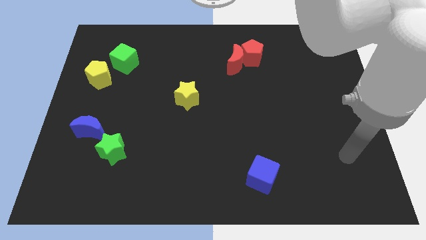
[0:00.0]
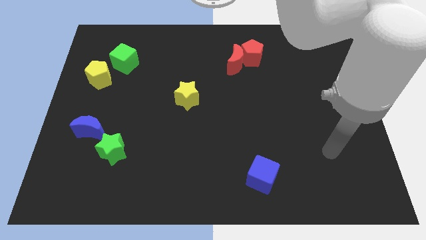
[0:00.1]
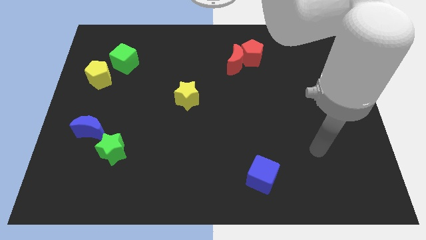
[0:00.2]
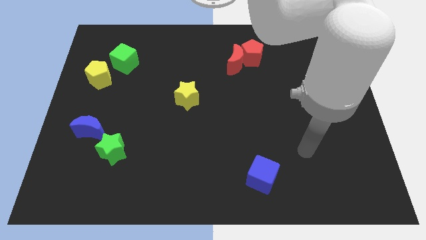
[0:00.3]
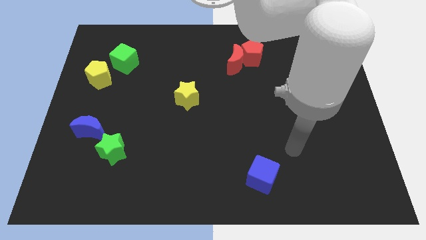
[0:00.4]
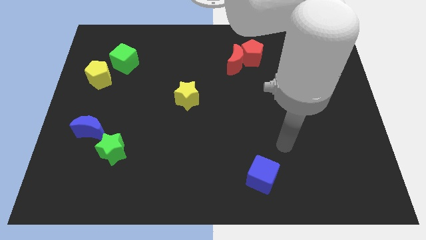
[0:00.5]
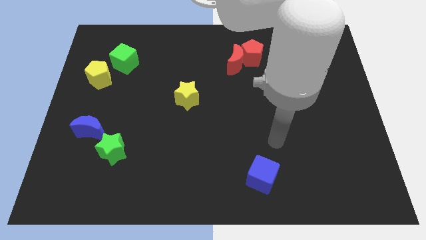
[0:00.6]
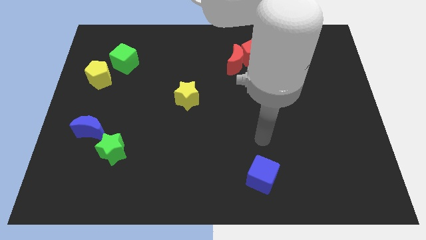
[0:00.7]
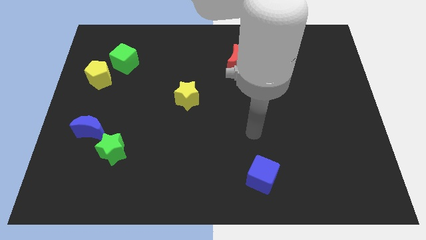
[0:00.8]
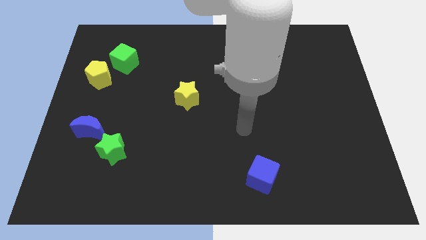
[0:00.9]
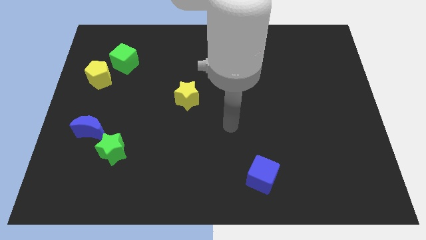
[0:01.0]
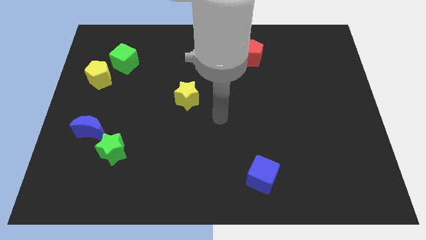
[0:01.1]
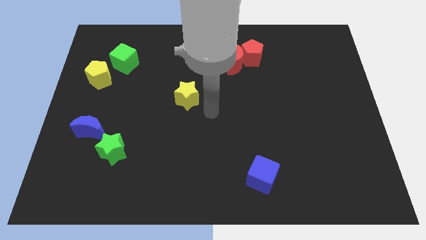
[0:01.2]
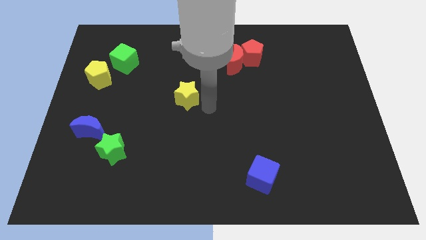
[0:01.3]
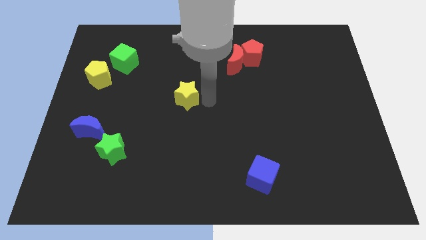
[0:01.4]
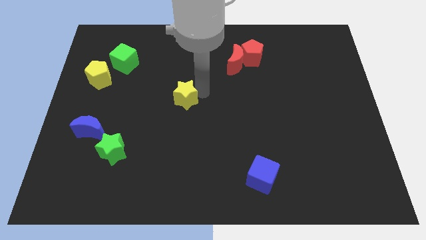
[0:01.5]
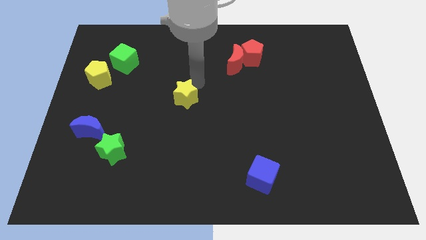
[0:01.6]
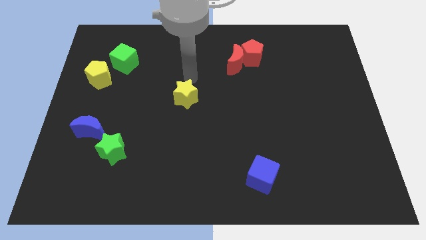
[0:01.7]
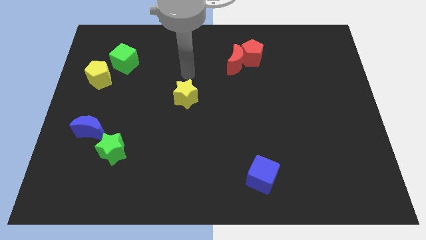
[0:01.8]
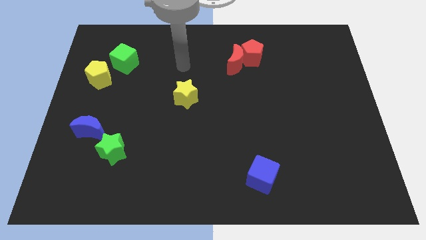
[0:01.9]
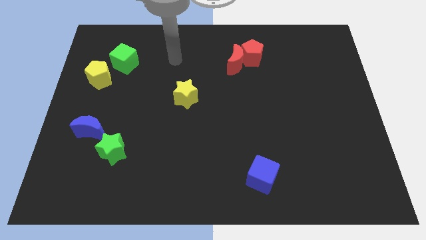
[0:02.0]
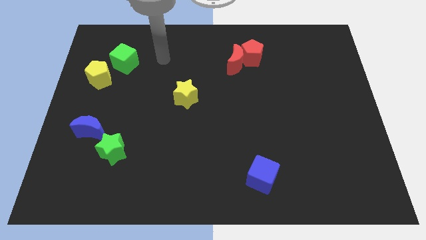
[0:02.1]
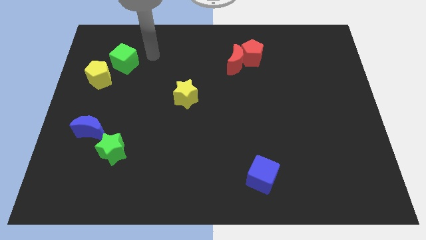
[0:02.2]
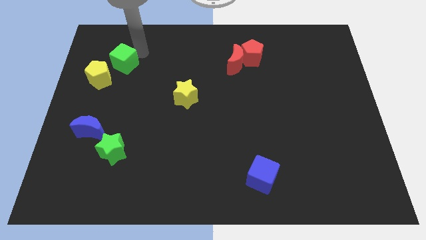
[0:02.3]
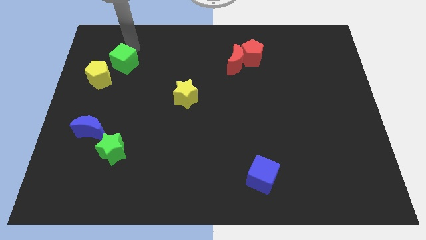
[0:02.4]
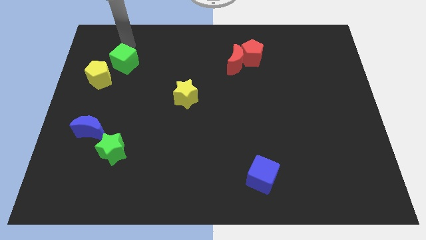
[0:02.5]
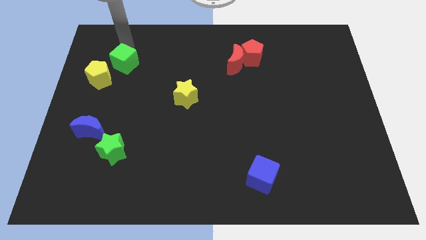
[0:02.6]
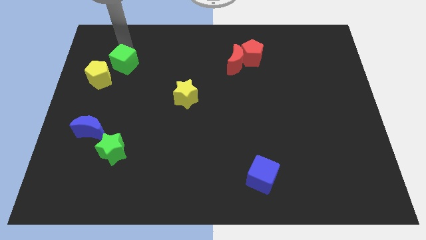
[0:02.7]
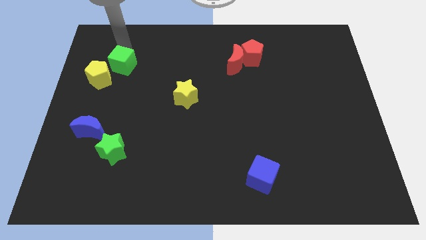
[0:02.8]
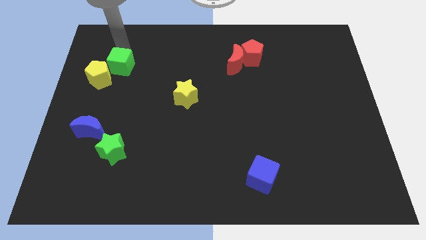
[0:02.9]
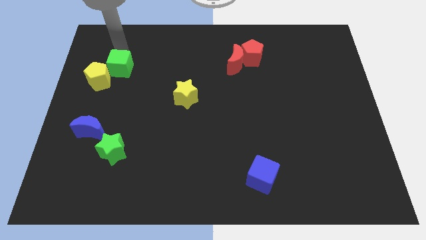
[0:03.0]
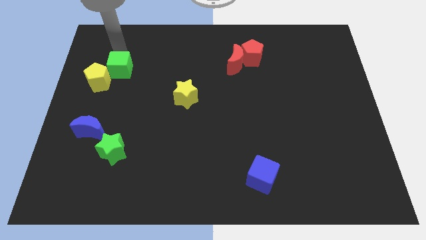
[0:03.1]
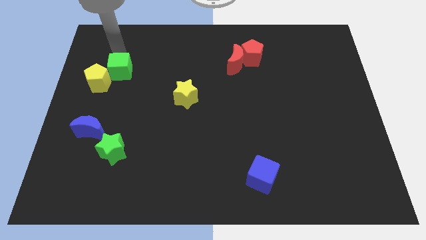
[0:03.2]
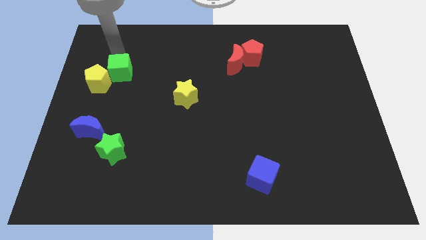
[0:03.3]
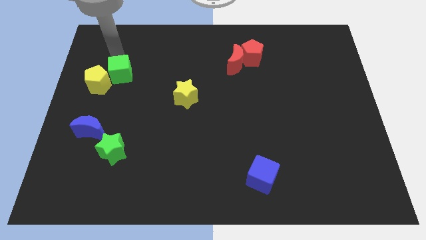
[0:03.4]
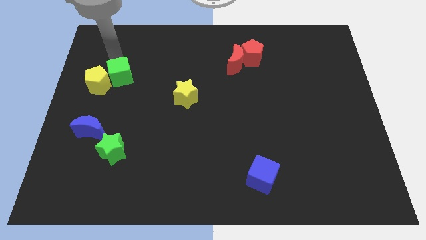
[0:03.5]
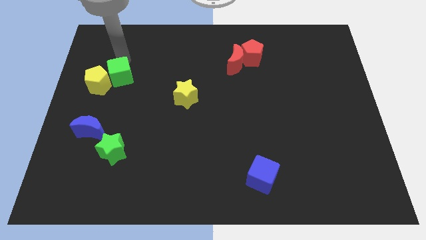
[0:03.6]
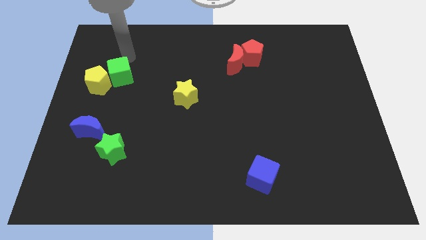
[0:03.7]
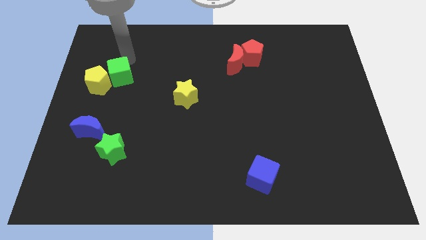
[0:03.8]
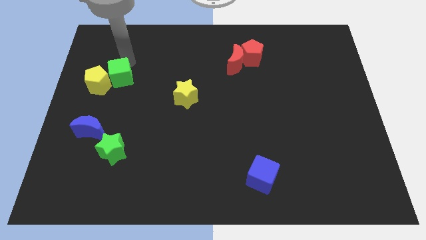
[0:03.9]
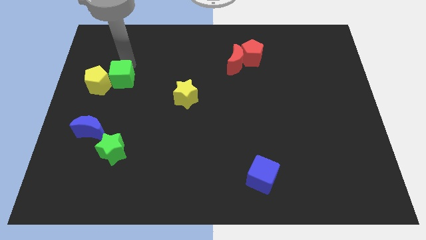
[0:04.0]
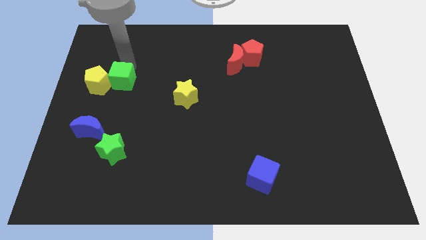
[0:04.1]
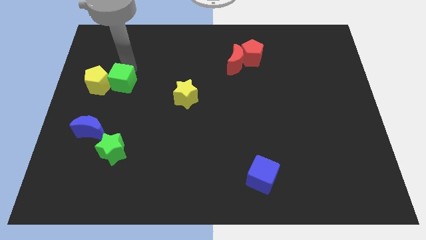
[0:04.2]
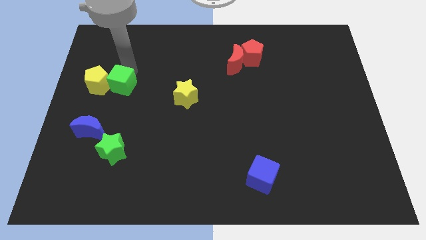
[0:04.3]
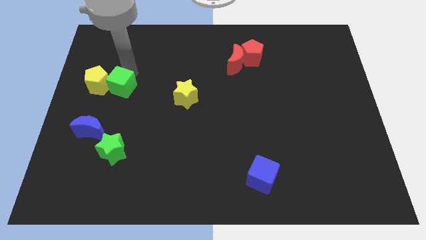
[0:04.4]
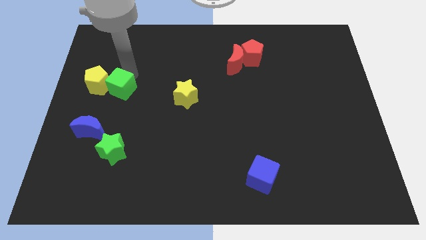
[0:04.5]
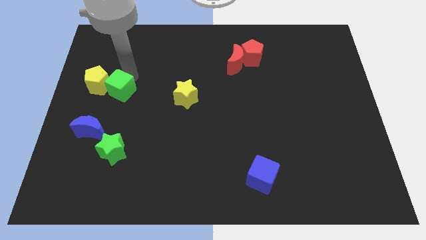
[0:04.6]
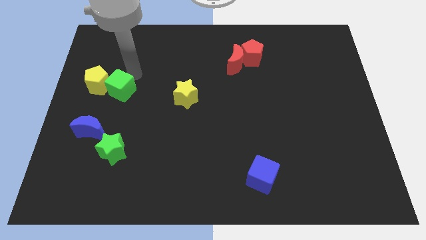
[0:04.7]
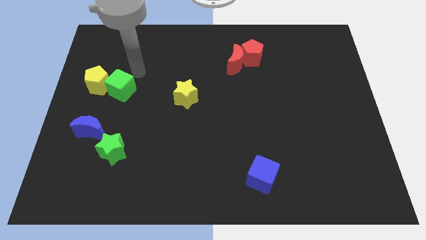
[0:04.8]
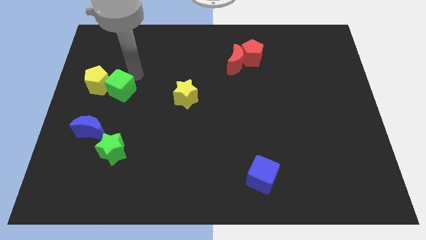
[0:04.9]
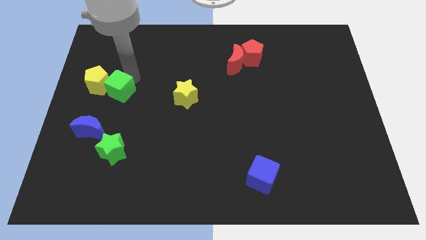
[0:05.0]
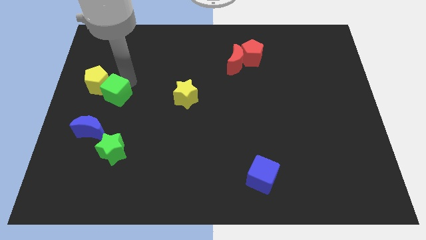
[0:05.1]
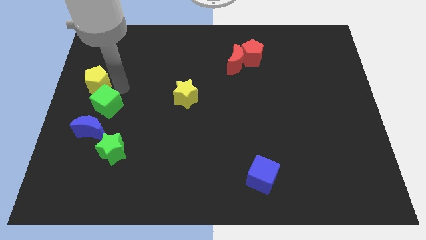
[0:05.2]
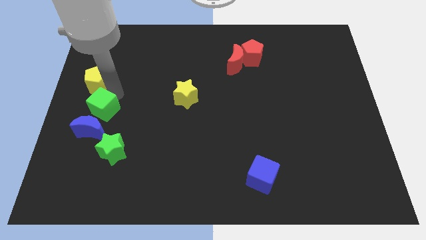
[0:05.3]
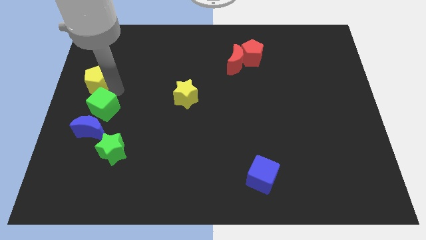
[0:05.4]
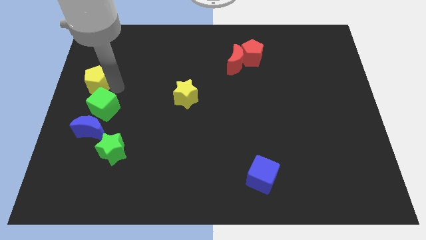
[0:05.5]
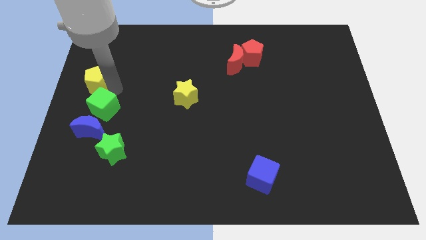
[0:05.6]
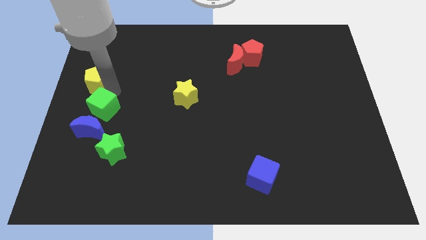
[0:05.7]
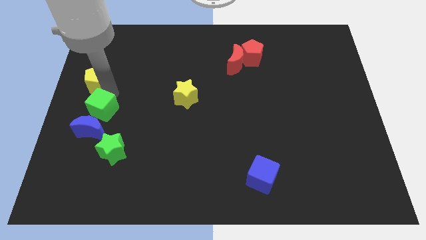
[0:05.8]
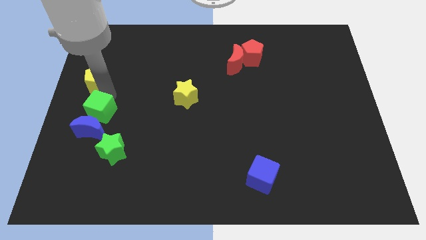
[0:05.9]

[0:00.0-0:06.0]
put the green cube towards the blue moon

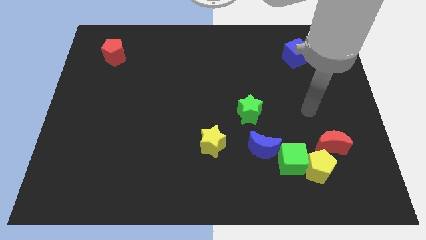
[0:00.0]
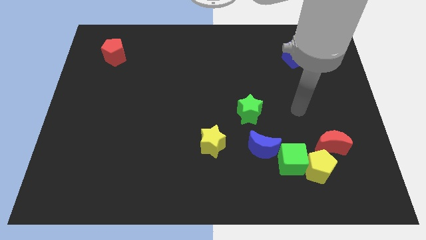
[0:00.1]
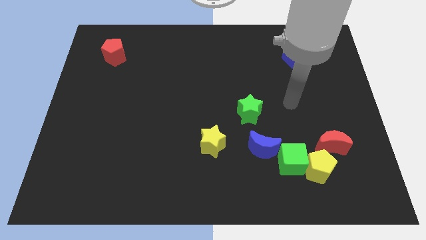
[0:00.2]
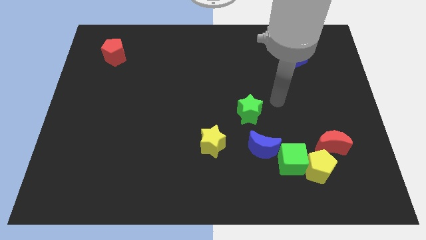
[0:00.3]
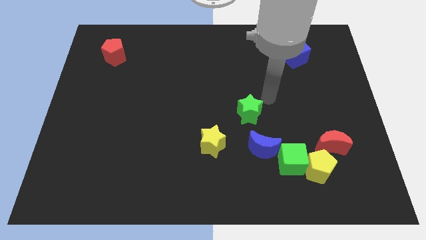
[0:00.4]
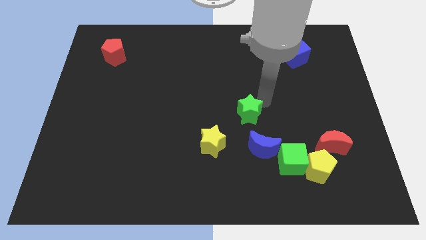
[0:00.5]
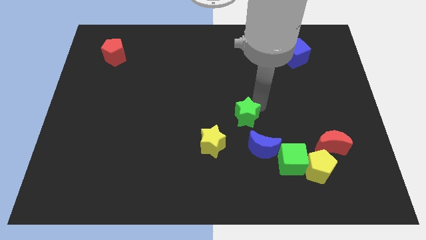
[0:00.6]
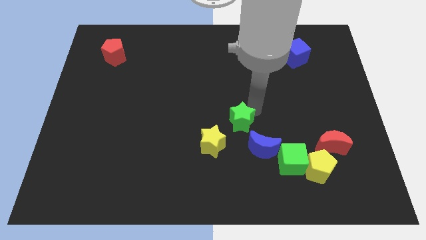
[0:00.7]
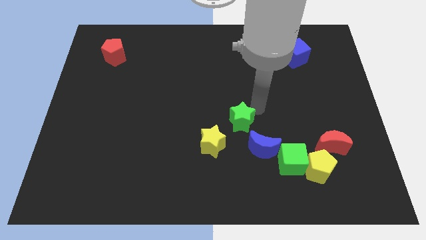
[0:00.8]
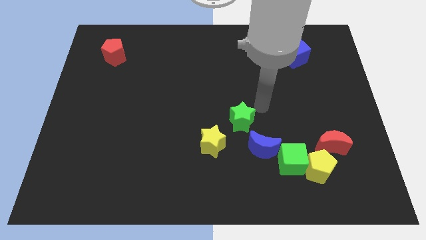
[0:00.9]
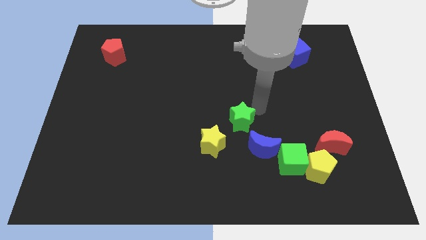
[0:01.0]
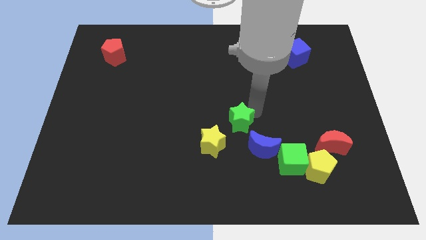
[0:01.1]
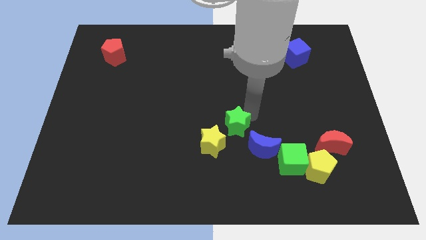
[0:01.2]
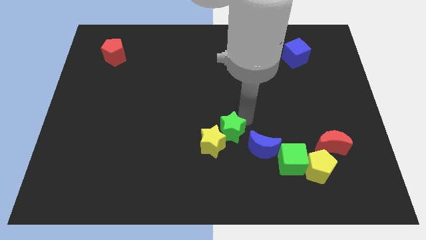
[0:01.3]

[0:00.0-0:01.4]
move the green star towards the yellow star

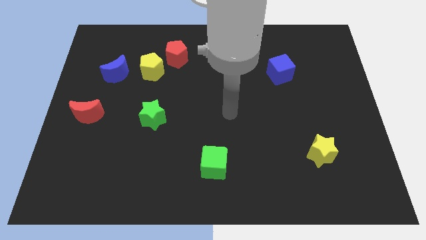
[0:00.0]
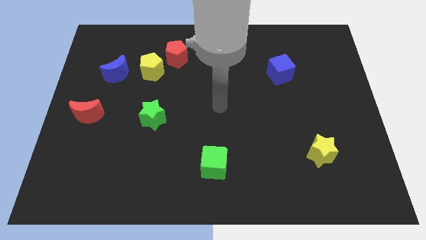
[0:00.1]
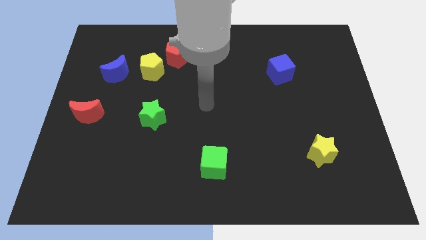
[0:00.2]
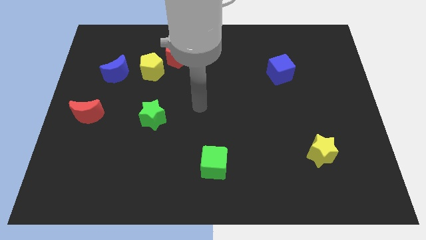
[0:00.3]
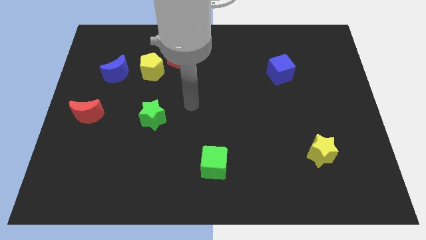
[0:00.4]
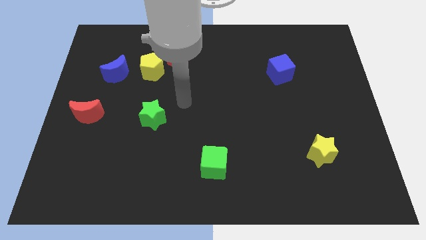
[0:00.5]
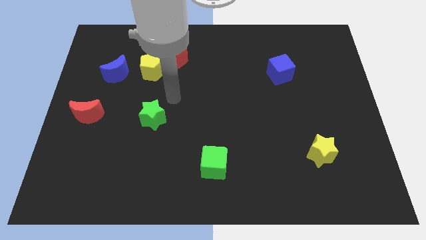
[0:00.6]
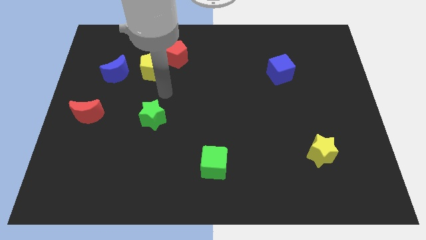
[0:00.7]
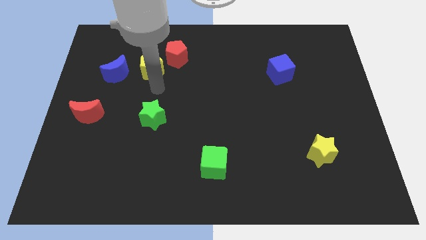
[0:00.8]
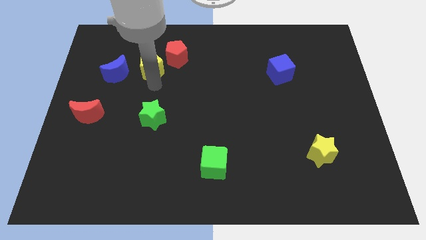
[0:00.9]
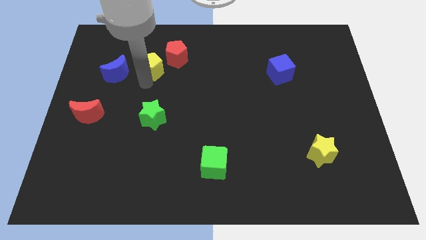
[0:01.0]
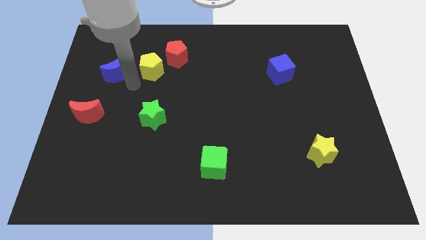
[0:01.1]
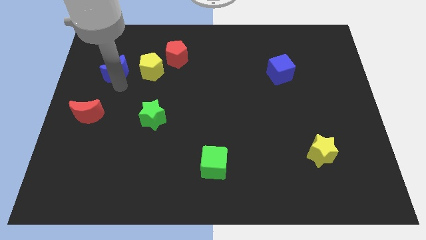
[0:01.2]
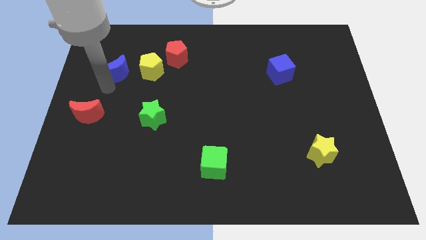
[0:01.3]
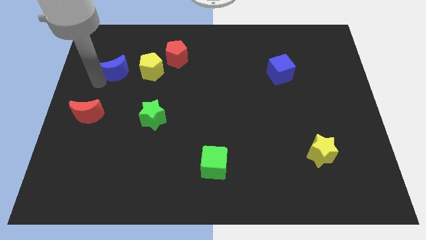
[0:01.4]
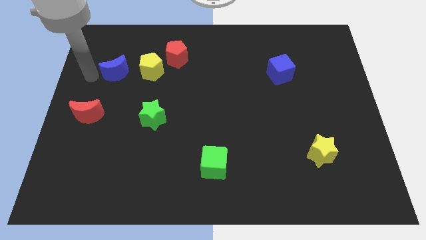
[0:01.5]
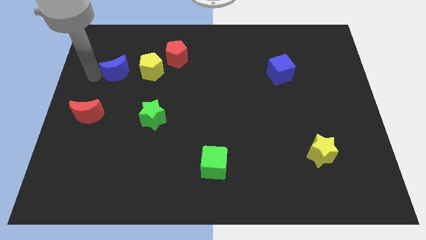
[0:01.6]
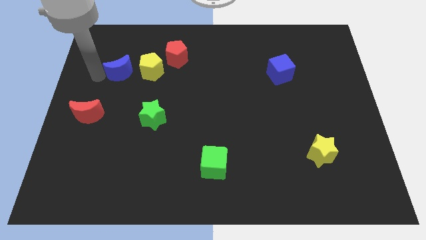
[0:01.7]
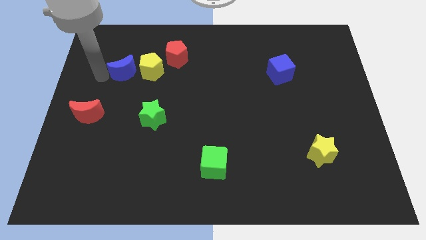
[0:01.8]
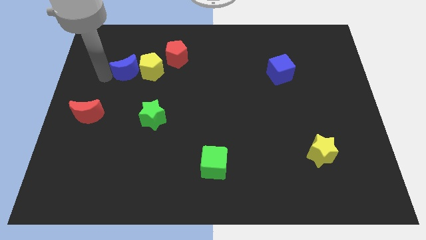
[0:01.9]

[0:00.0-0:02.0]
push the blue moon towards the yellow pentagon
